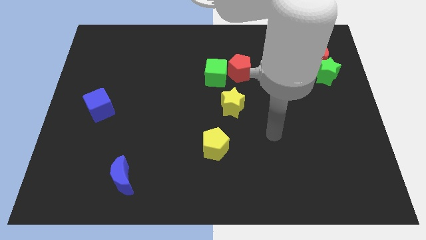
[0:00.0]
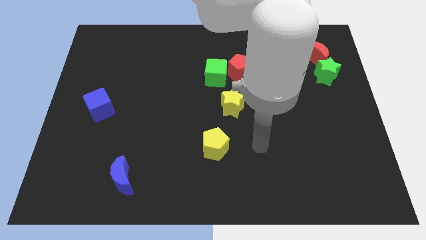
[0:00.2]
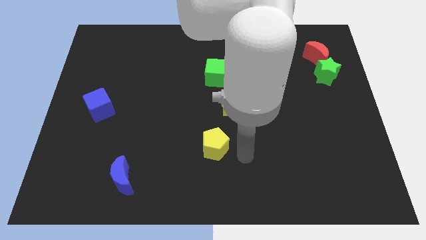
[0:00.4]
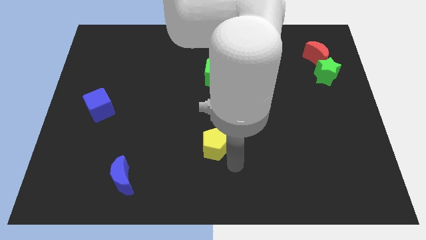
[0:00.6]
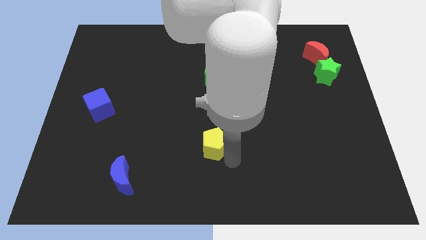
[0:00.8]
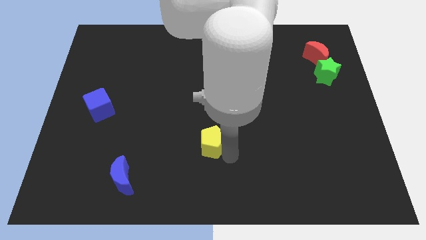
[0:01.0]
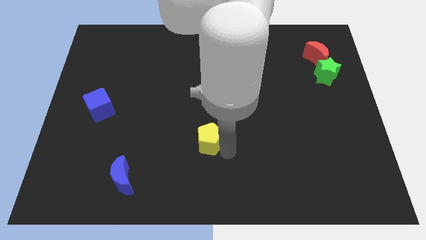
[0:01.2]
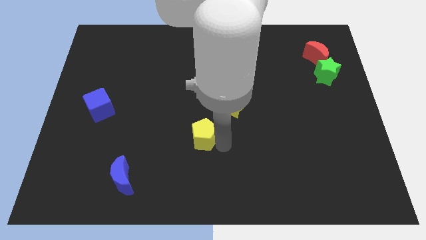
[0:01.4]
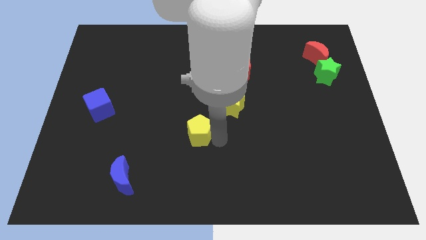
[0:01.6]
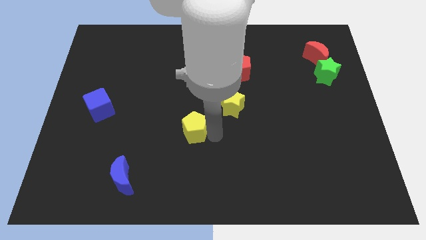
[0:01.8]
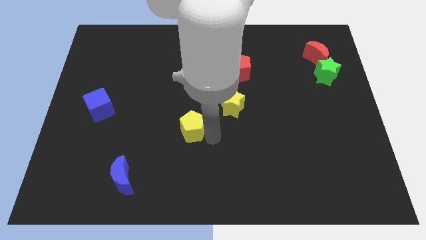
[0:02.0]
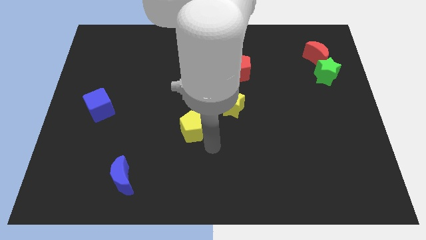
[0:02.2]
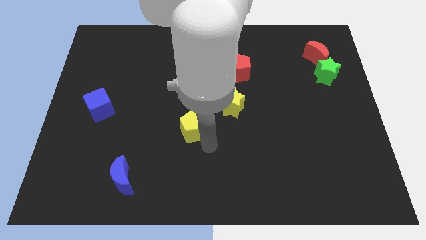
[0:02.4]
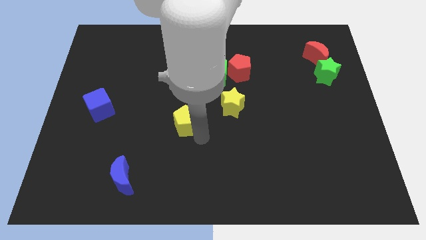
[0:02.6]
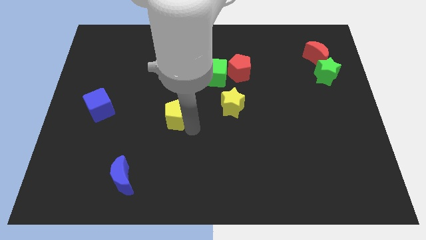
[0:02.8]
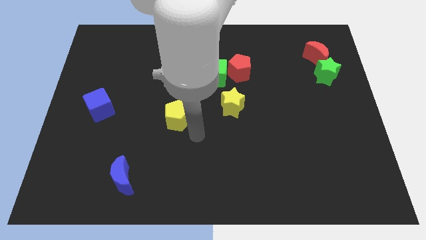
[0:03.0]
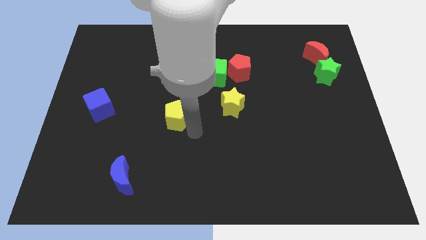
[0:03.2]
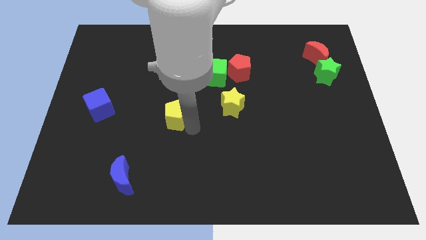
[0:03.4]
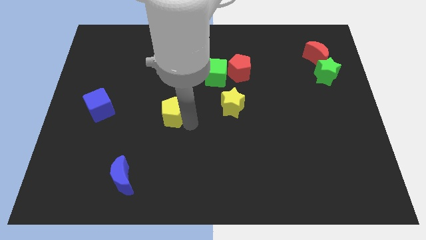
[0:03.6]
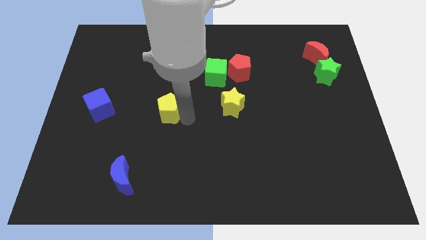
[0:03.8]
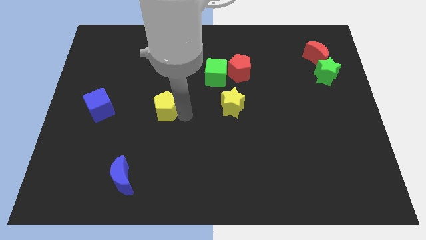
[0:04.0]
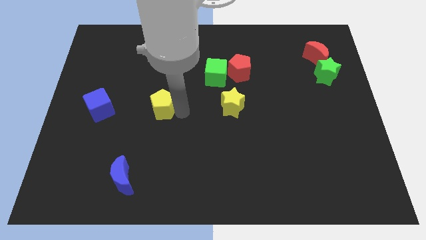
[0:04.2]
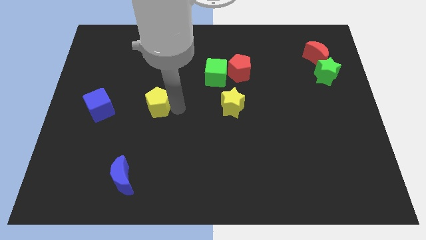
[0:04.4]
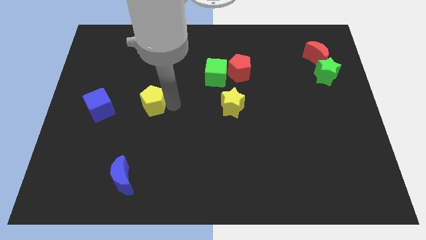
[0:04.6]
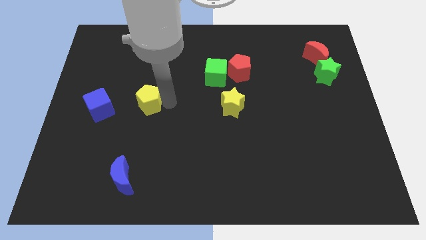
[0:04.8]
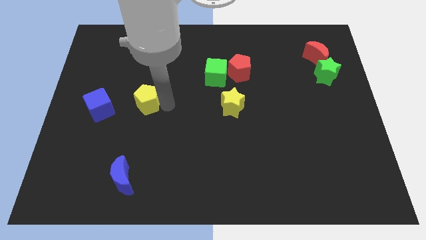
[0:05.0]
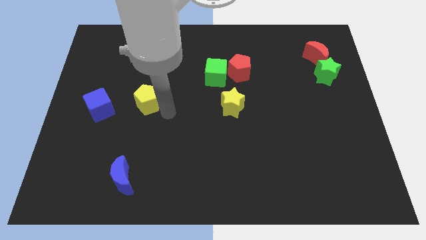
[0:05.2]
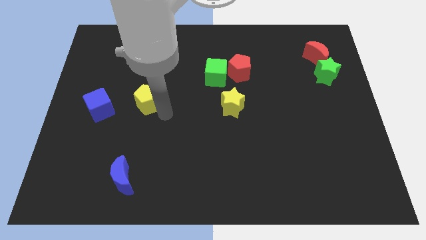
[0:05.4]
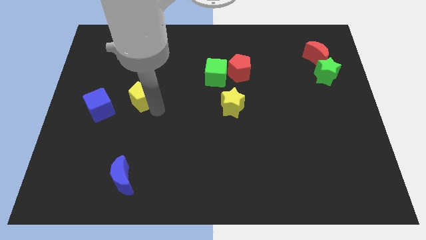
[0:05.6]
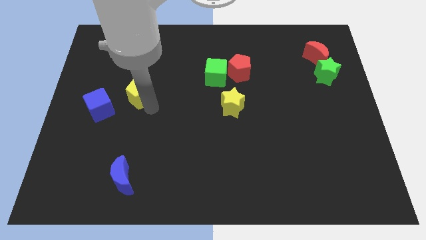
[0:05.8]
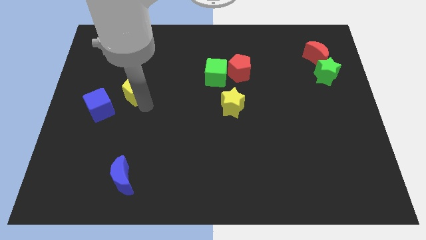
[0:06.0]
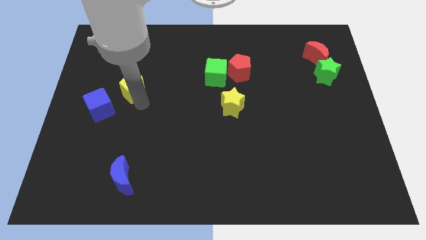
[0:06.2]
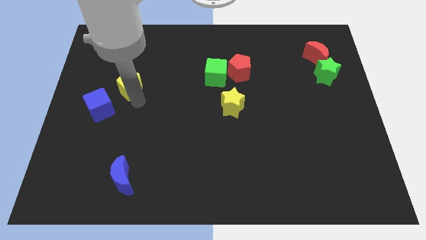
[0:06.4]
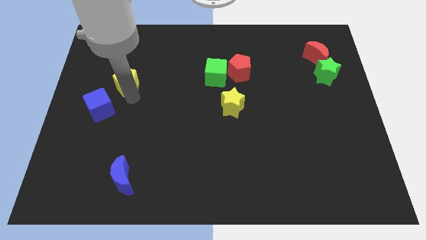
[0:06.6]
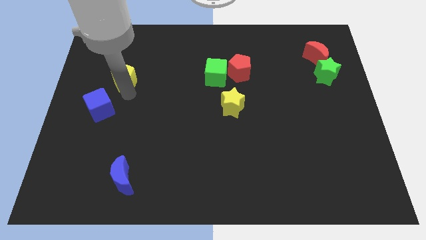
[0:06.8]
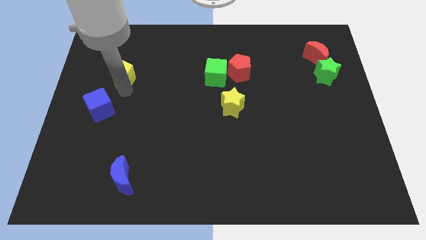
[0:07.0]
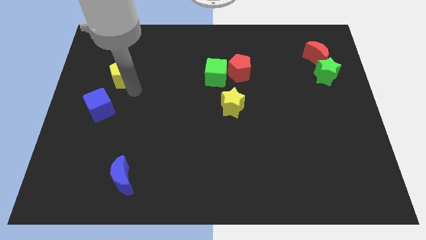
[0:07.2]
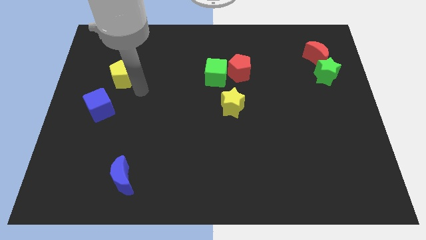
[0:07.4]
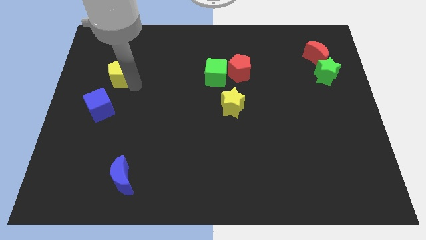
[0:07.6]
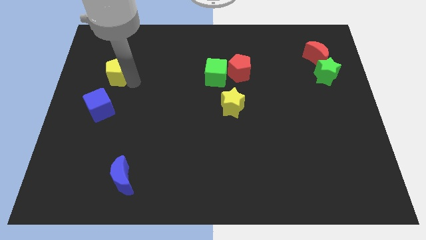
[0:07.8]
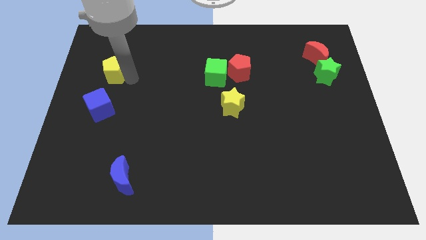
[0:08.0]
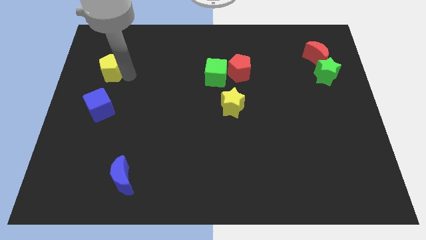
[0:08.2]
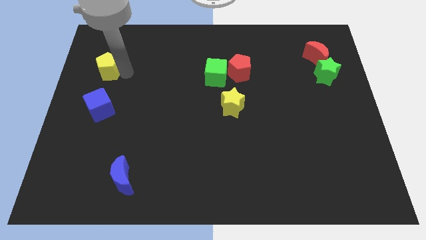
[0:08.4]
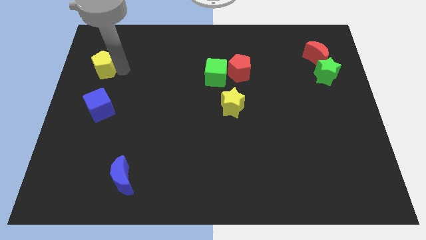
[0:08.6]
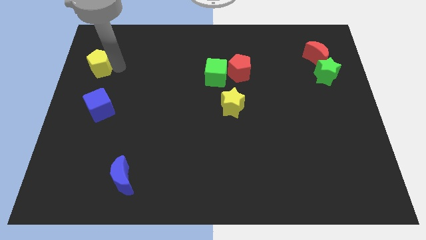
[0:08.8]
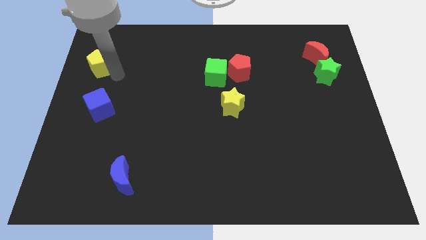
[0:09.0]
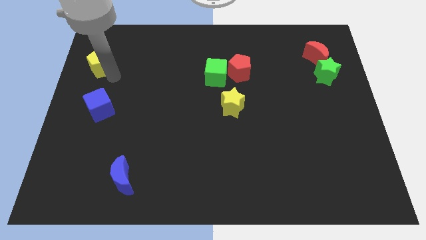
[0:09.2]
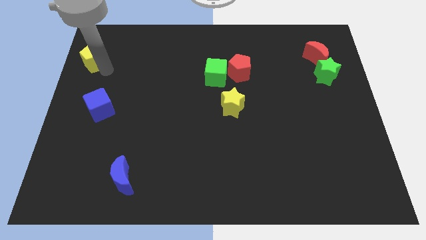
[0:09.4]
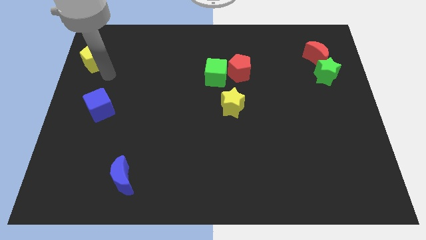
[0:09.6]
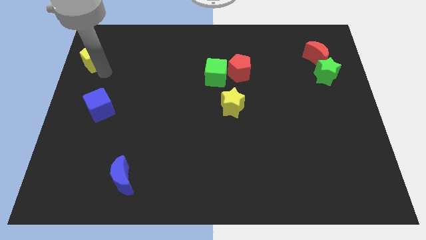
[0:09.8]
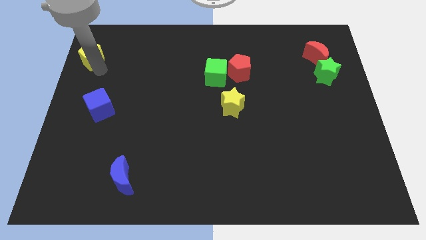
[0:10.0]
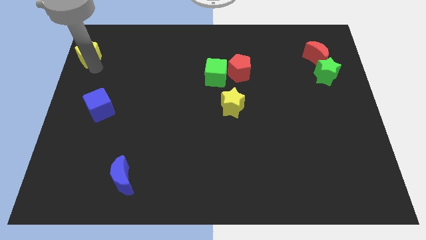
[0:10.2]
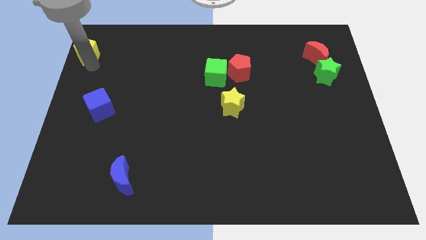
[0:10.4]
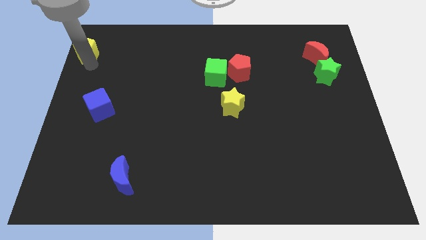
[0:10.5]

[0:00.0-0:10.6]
put the yellow pentagon to the upper left corner
